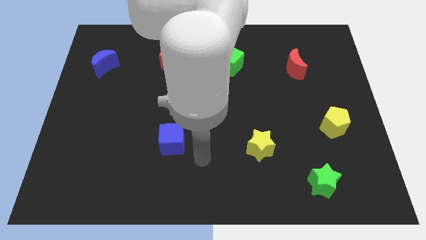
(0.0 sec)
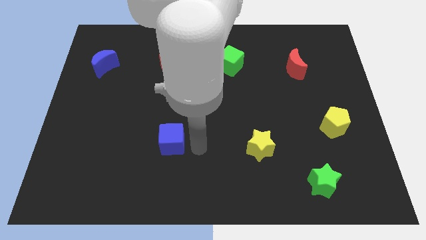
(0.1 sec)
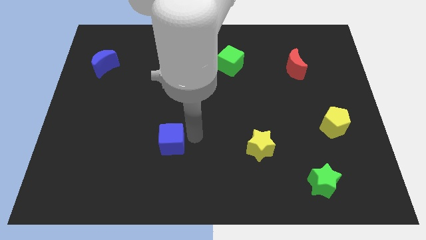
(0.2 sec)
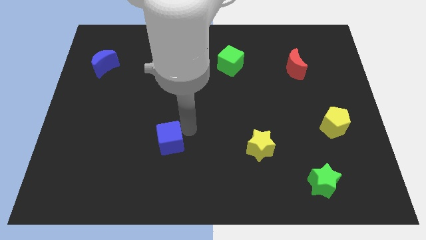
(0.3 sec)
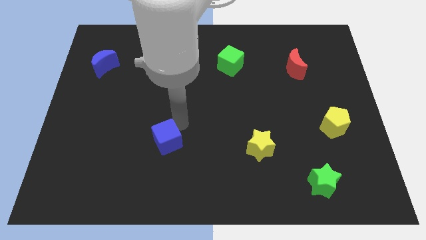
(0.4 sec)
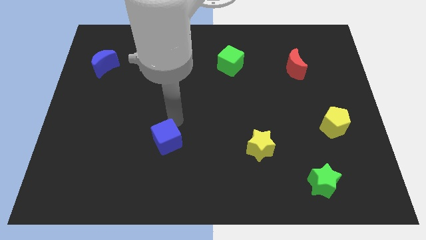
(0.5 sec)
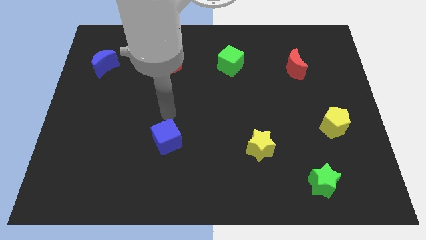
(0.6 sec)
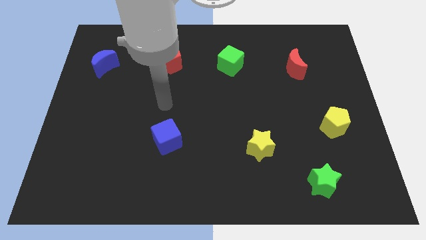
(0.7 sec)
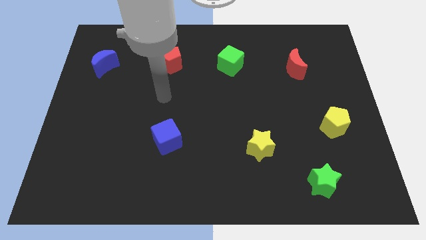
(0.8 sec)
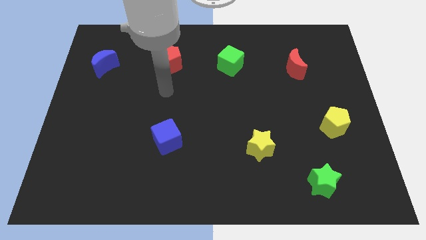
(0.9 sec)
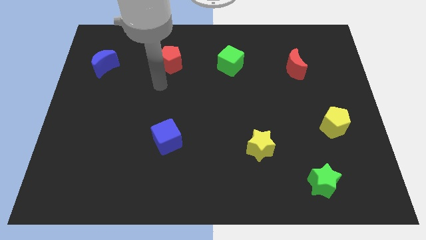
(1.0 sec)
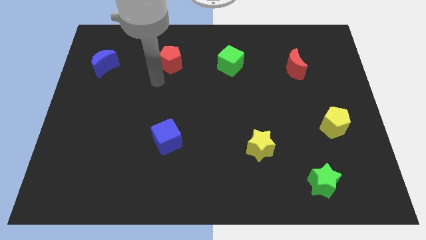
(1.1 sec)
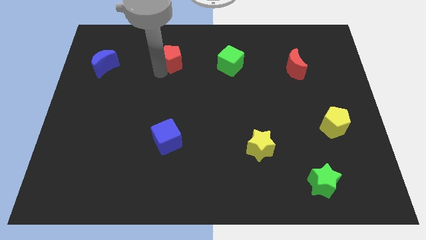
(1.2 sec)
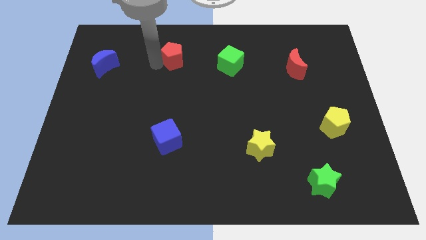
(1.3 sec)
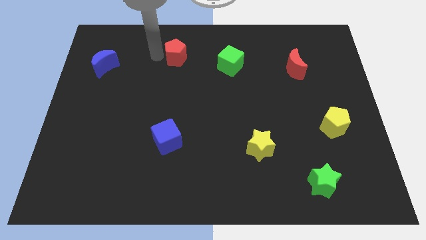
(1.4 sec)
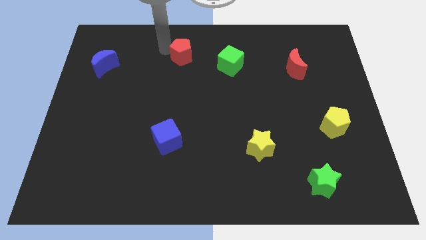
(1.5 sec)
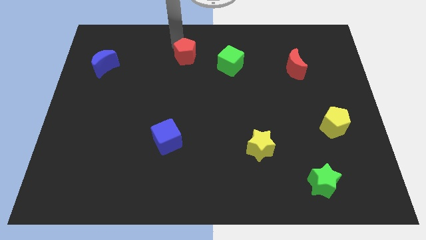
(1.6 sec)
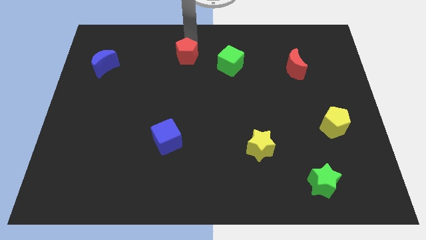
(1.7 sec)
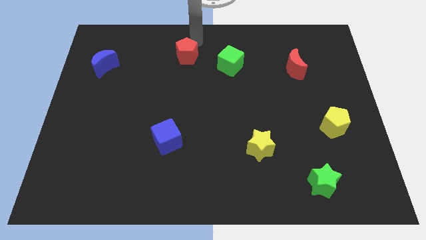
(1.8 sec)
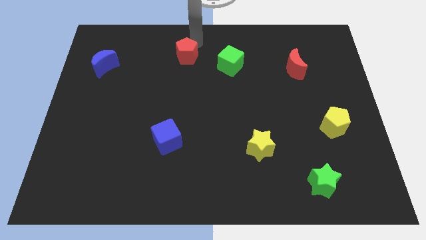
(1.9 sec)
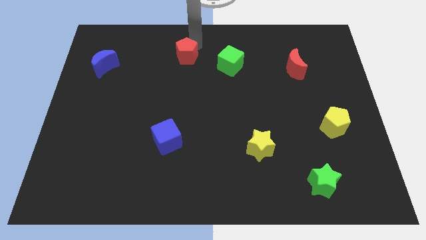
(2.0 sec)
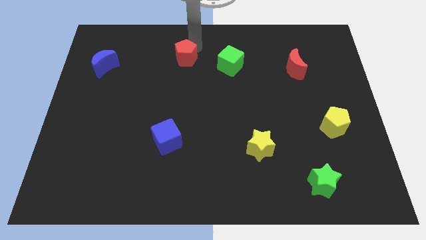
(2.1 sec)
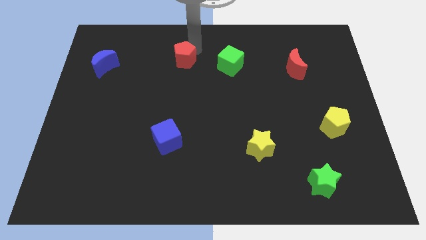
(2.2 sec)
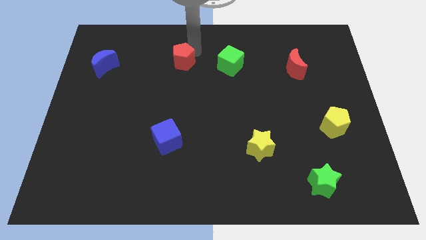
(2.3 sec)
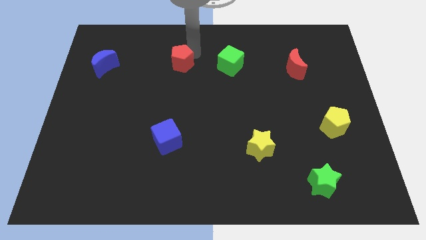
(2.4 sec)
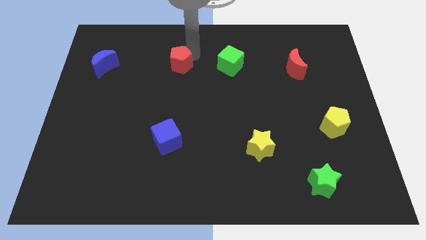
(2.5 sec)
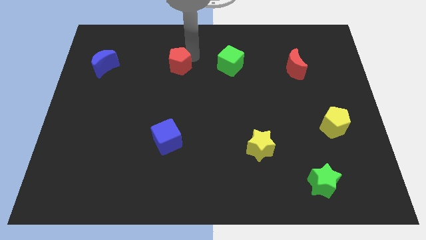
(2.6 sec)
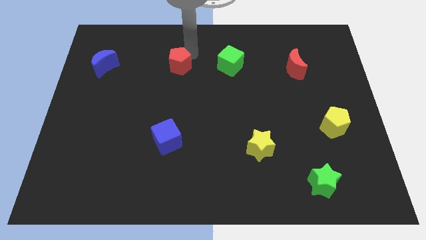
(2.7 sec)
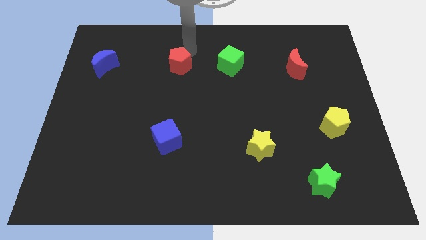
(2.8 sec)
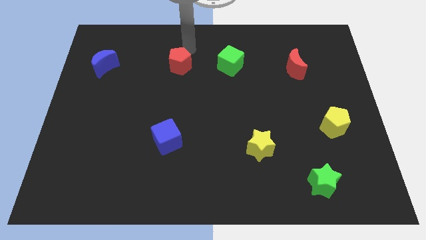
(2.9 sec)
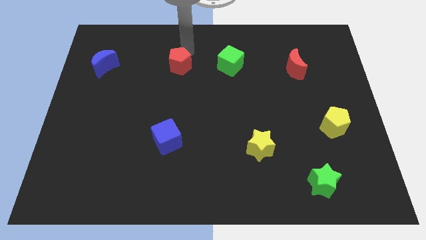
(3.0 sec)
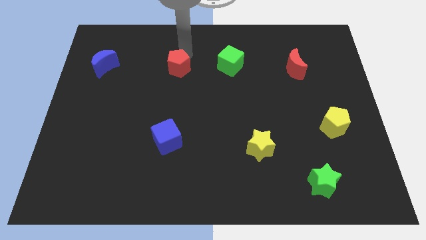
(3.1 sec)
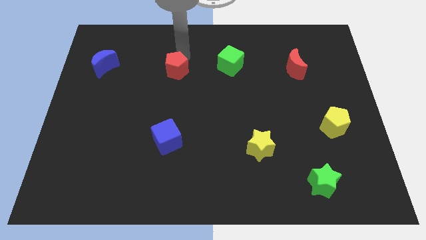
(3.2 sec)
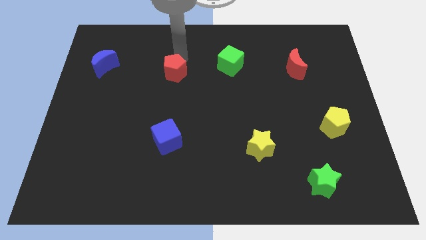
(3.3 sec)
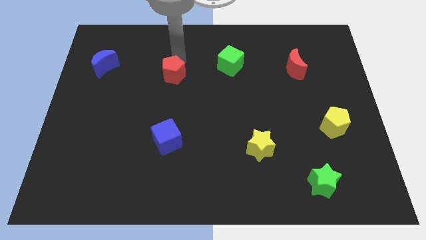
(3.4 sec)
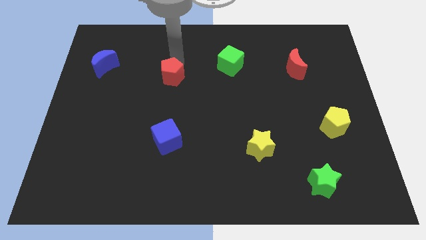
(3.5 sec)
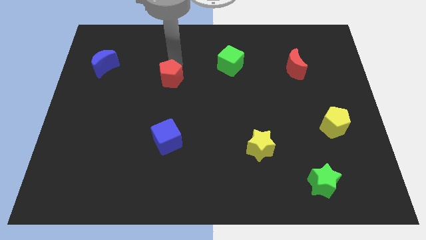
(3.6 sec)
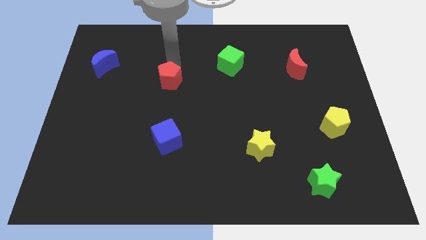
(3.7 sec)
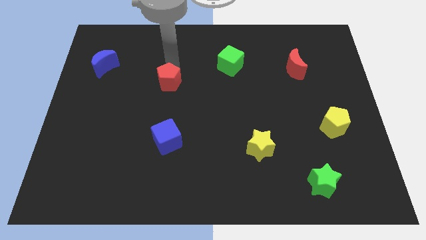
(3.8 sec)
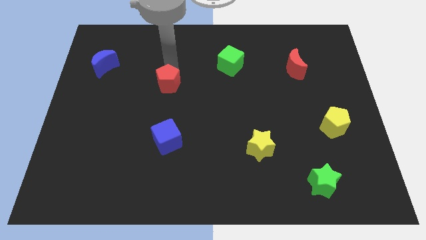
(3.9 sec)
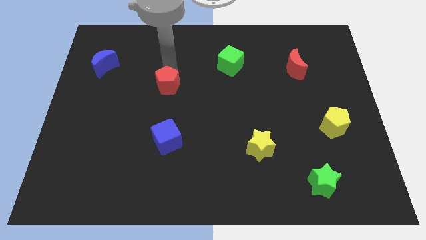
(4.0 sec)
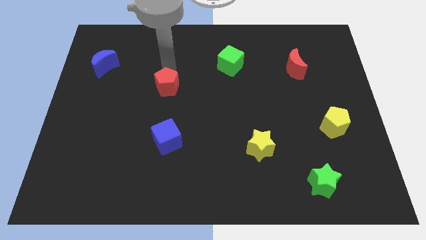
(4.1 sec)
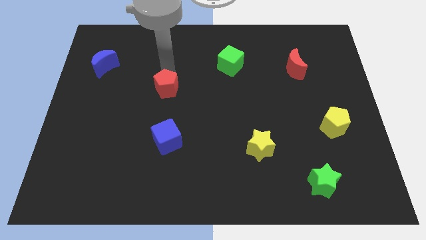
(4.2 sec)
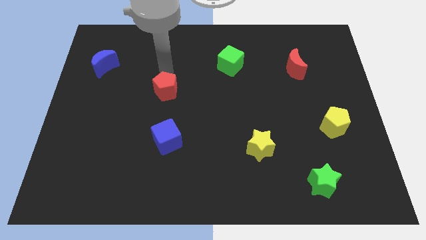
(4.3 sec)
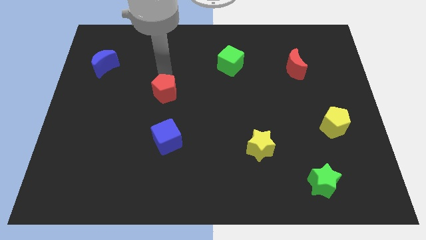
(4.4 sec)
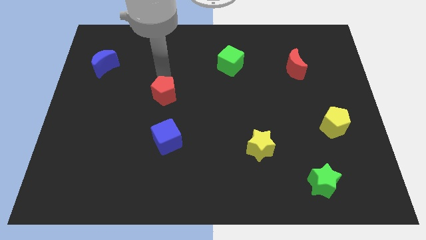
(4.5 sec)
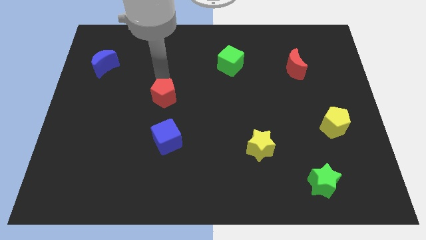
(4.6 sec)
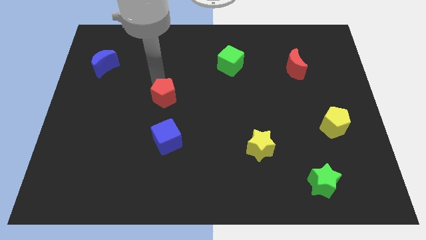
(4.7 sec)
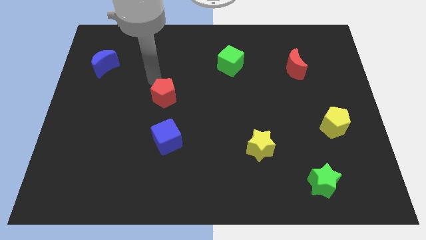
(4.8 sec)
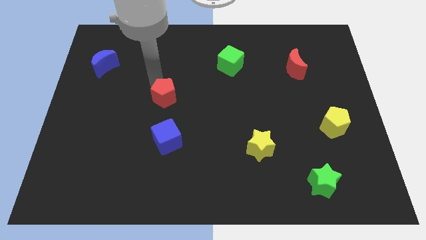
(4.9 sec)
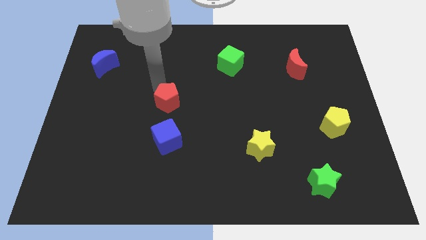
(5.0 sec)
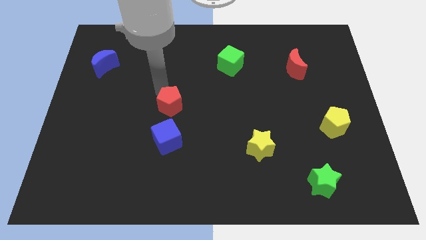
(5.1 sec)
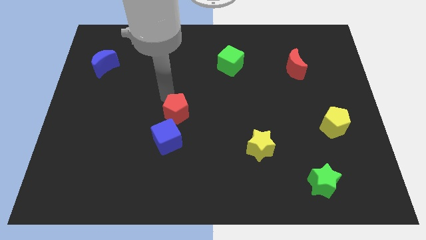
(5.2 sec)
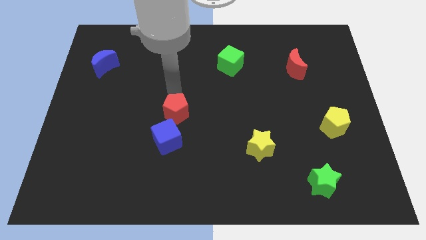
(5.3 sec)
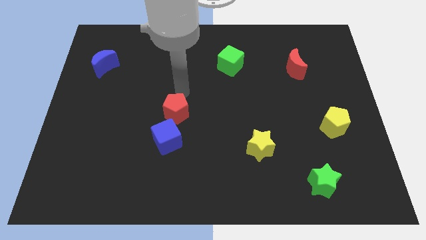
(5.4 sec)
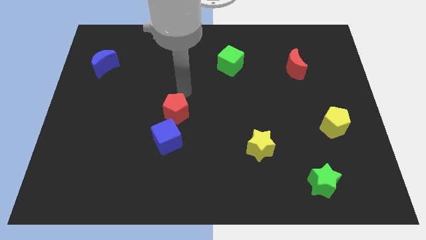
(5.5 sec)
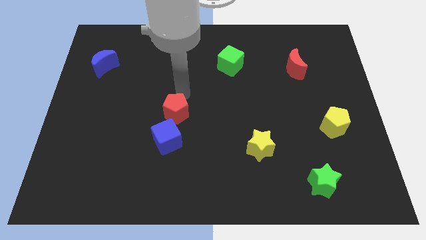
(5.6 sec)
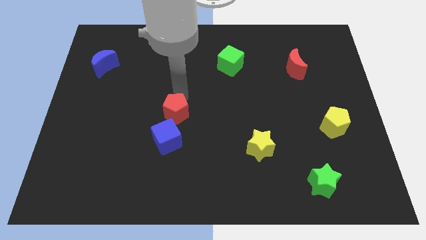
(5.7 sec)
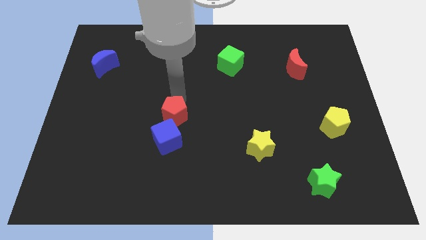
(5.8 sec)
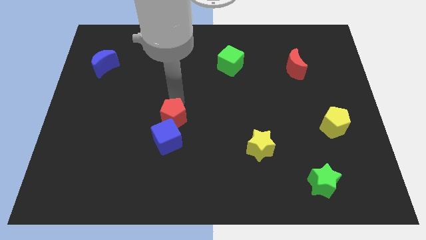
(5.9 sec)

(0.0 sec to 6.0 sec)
move the red pentagon to the blue cube

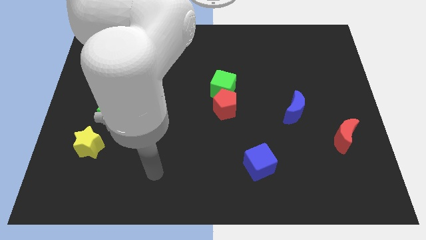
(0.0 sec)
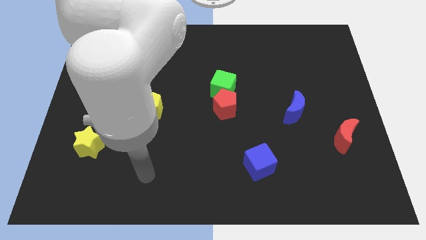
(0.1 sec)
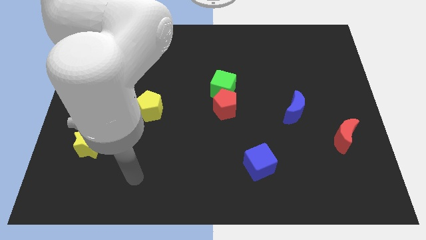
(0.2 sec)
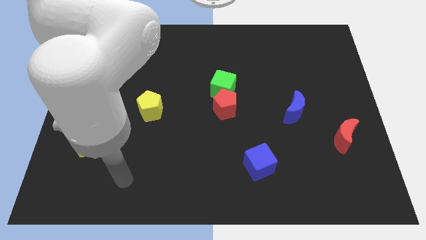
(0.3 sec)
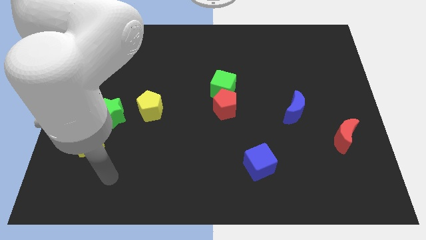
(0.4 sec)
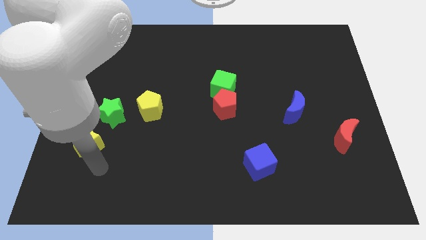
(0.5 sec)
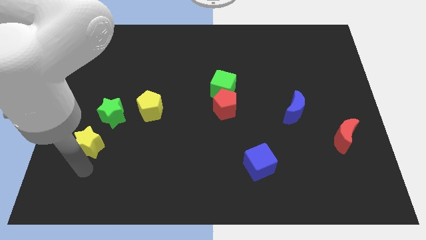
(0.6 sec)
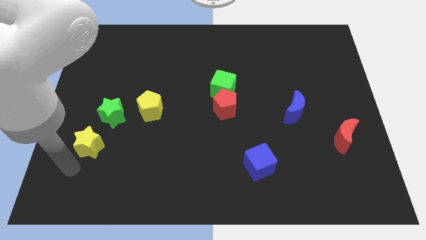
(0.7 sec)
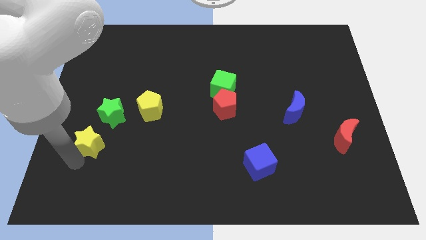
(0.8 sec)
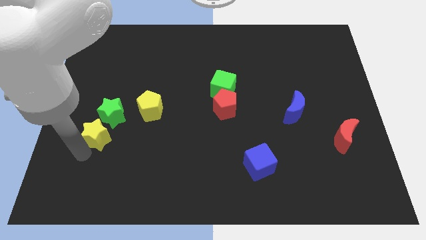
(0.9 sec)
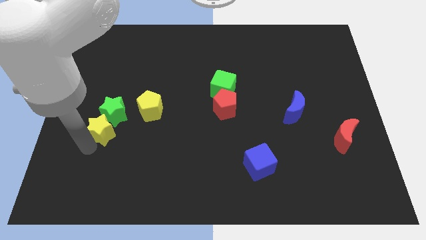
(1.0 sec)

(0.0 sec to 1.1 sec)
put the yellow star to the green star
